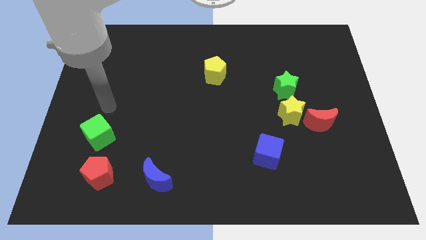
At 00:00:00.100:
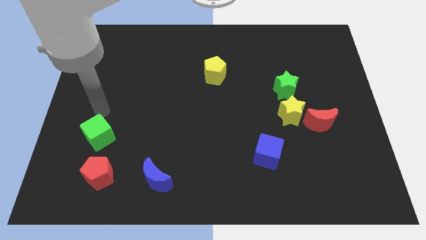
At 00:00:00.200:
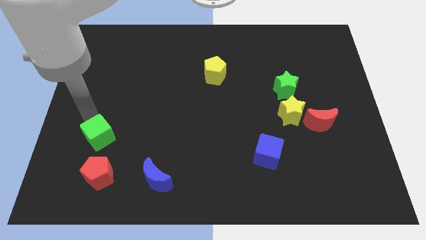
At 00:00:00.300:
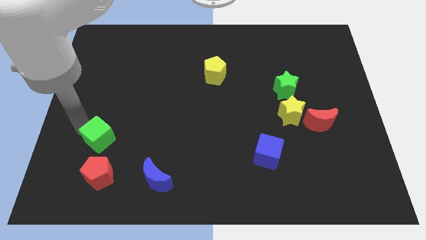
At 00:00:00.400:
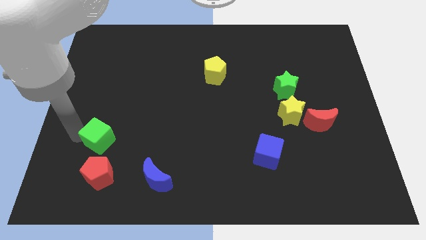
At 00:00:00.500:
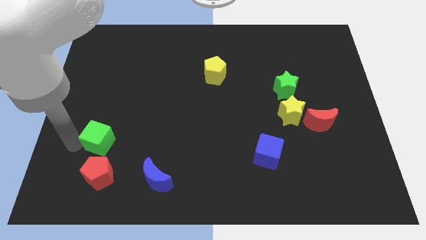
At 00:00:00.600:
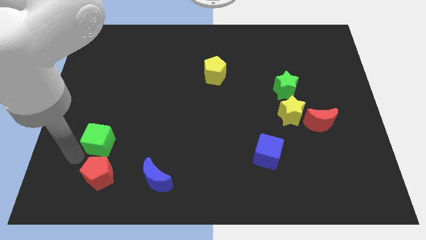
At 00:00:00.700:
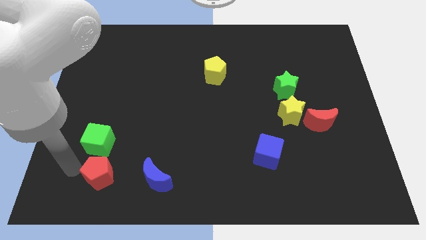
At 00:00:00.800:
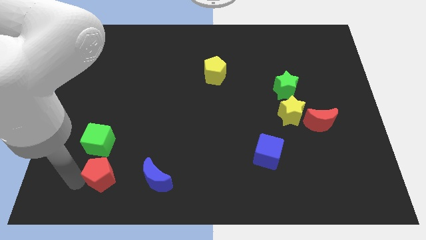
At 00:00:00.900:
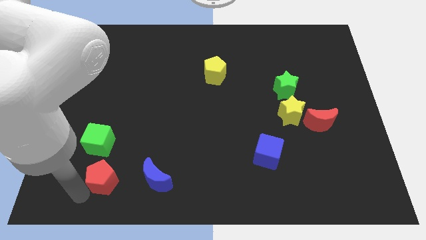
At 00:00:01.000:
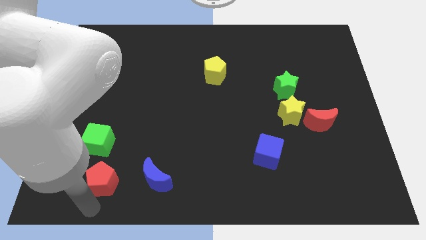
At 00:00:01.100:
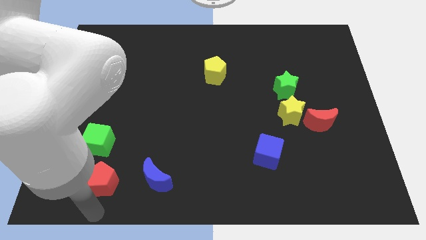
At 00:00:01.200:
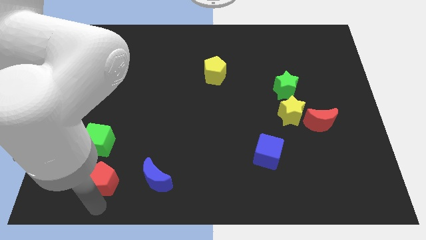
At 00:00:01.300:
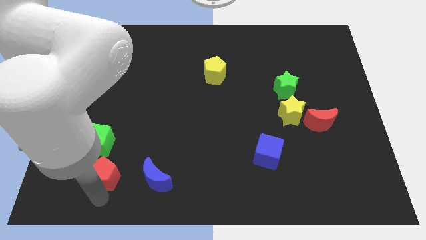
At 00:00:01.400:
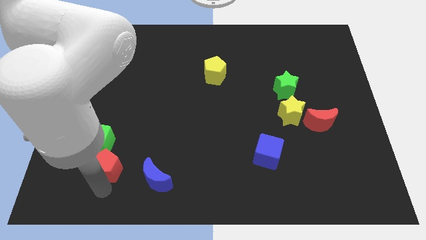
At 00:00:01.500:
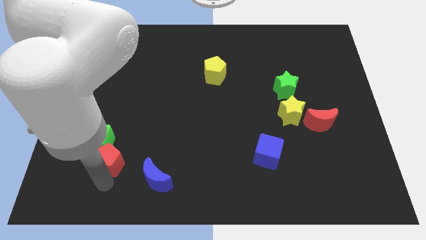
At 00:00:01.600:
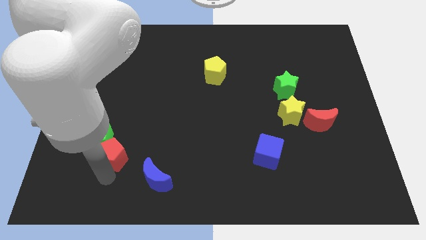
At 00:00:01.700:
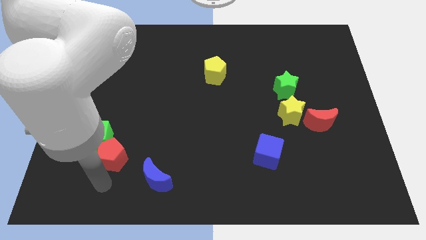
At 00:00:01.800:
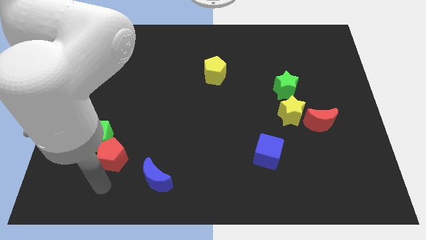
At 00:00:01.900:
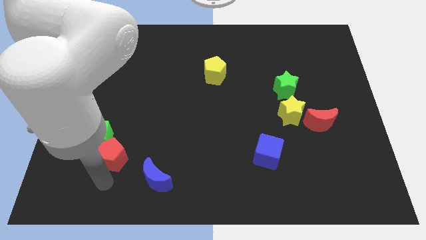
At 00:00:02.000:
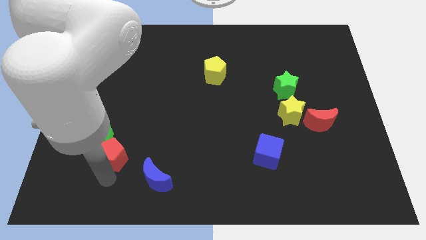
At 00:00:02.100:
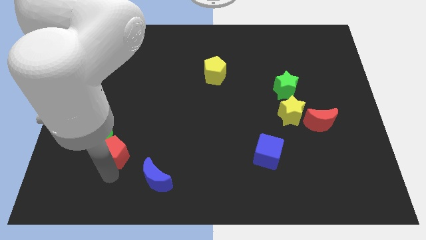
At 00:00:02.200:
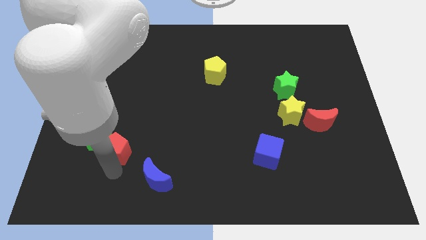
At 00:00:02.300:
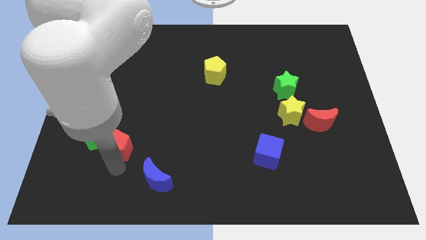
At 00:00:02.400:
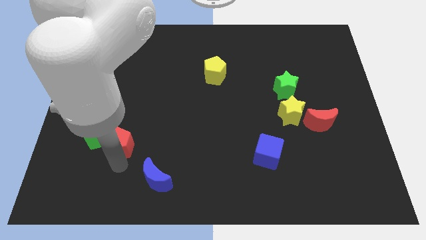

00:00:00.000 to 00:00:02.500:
move the red pentagon a little upwards

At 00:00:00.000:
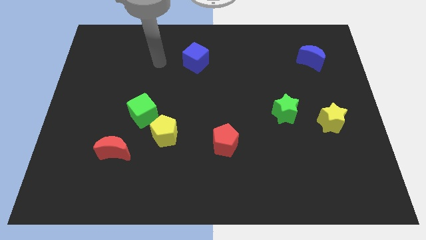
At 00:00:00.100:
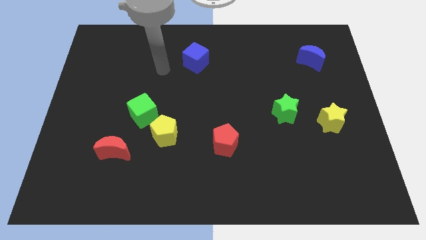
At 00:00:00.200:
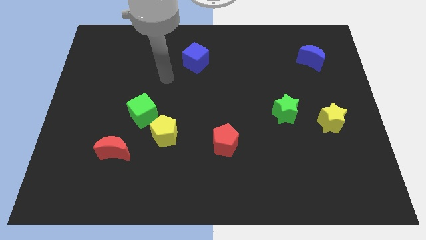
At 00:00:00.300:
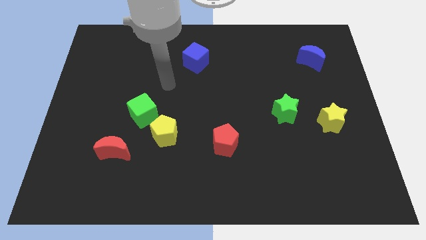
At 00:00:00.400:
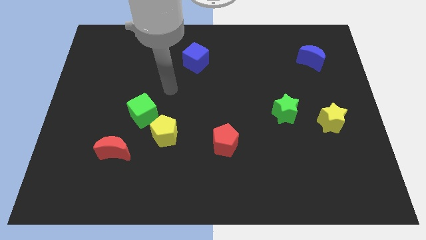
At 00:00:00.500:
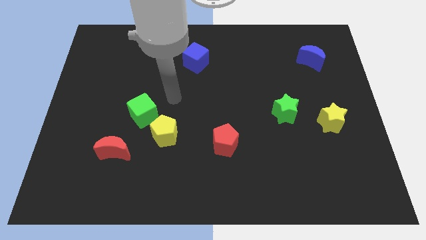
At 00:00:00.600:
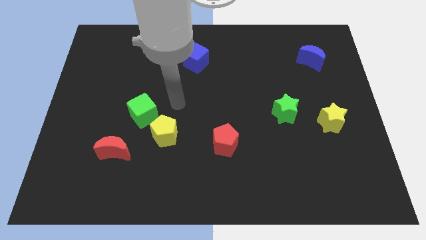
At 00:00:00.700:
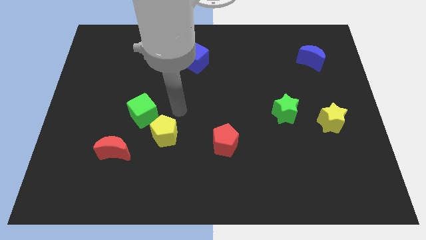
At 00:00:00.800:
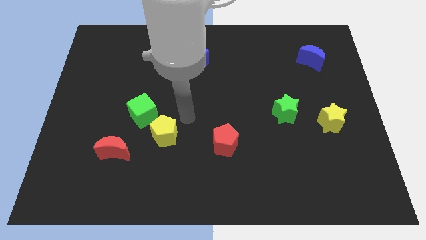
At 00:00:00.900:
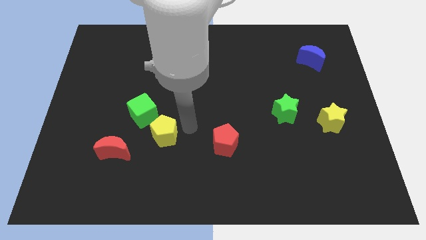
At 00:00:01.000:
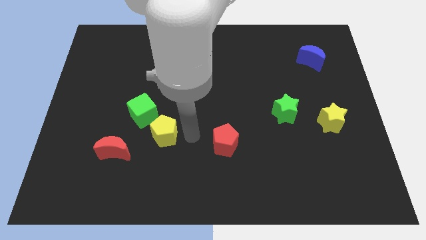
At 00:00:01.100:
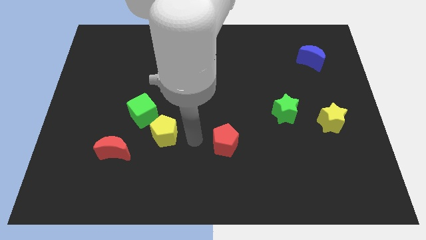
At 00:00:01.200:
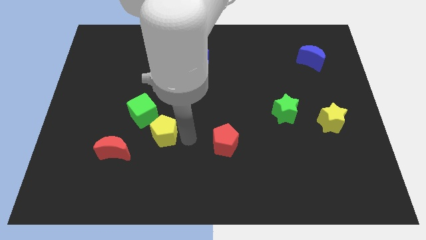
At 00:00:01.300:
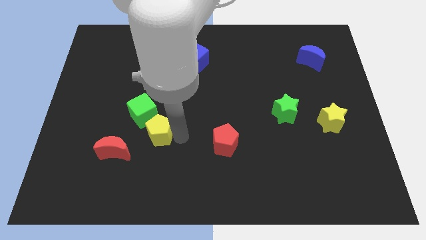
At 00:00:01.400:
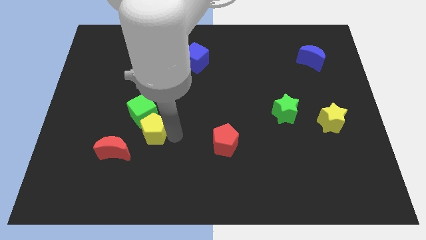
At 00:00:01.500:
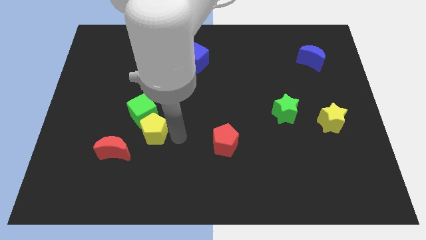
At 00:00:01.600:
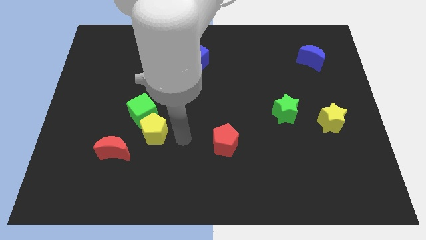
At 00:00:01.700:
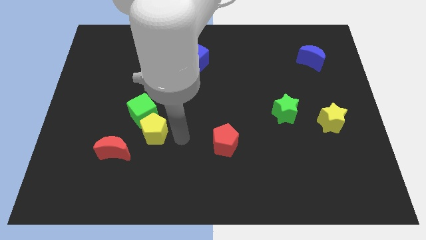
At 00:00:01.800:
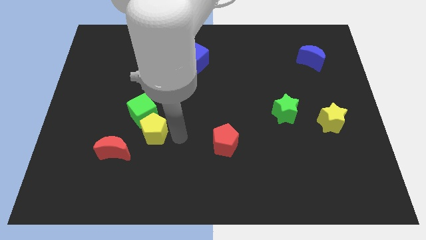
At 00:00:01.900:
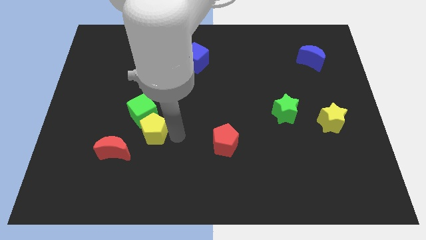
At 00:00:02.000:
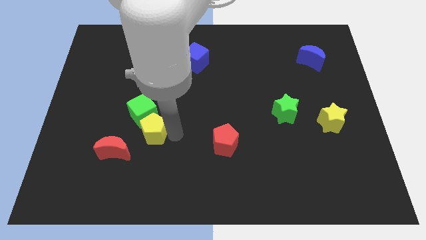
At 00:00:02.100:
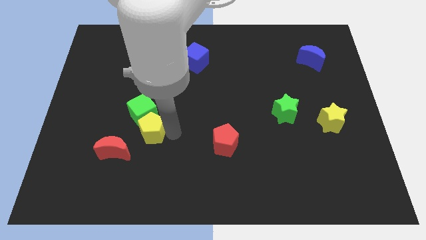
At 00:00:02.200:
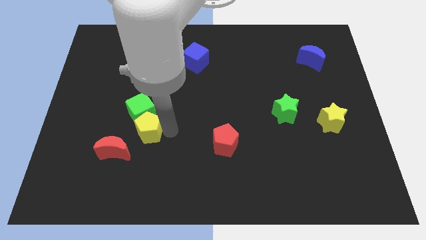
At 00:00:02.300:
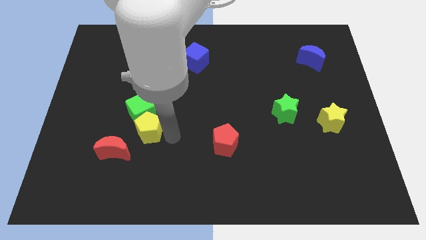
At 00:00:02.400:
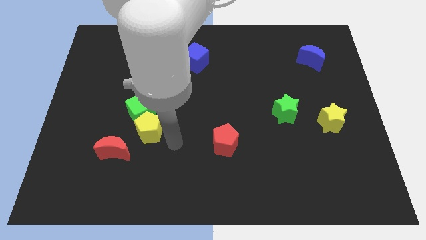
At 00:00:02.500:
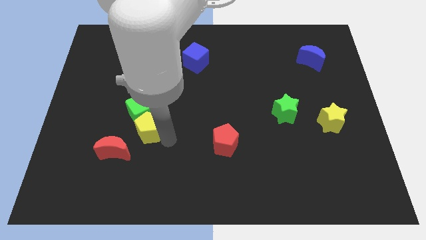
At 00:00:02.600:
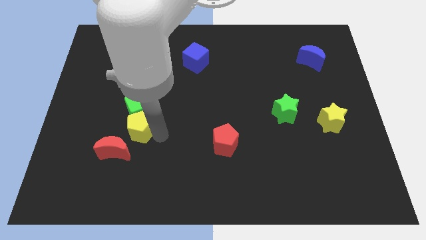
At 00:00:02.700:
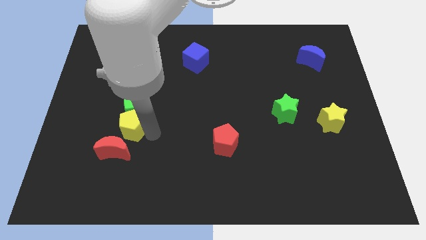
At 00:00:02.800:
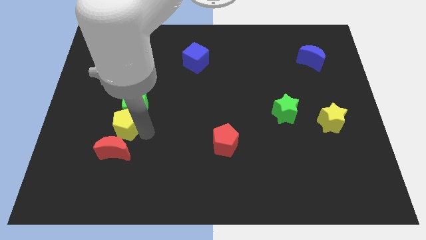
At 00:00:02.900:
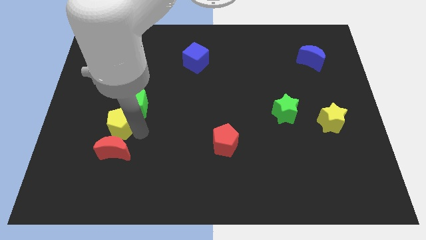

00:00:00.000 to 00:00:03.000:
slightly slide the yellow pentagon upwards and to the left diagonally

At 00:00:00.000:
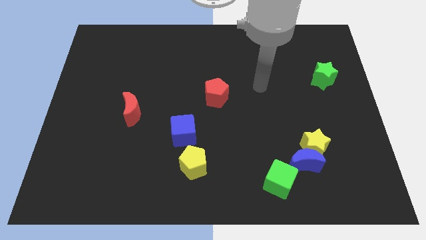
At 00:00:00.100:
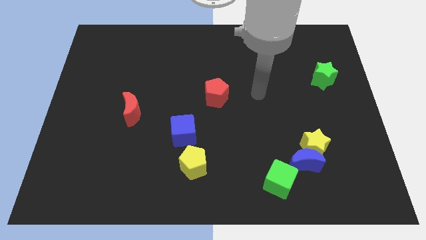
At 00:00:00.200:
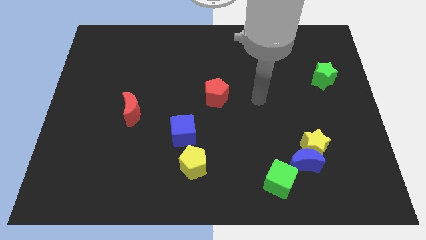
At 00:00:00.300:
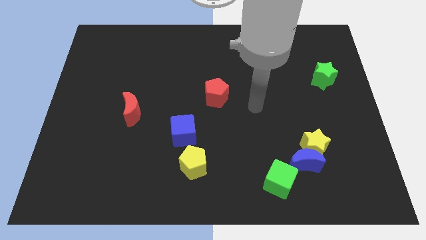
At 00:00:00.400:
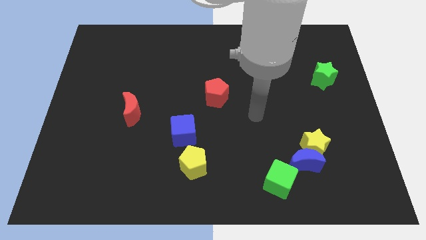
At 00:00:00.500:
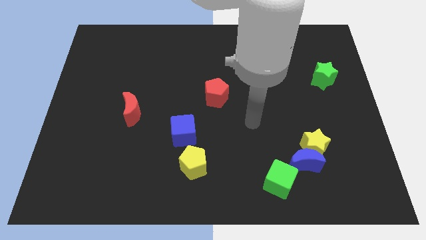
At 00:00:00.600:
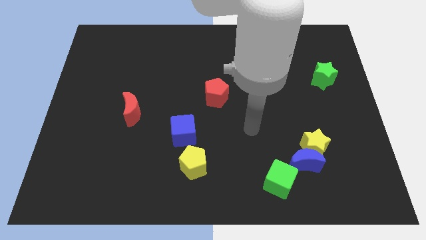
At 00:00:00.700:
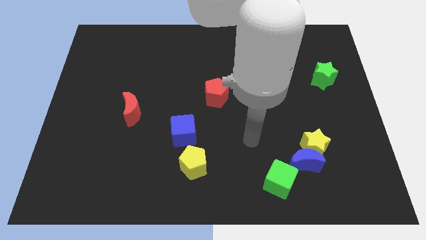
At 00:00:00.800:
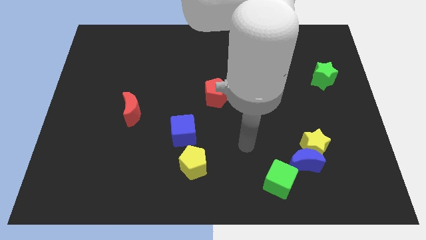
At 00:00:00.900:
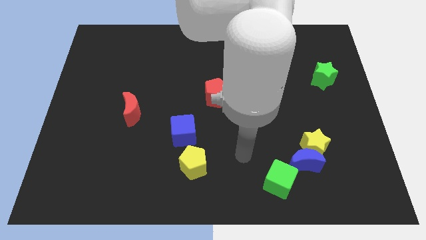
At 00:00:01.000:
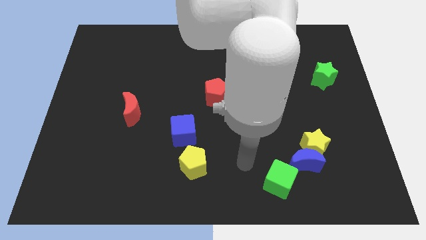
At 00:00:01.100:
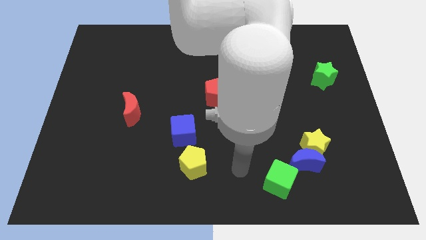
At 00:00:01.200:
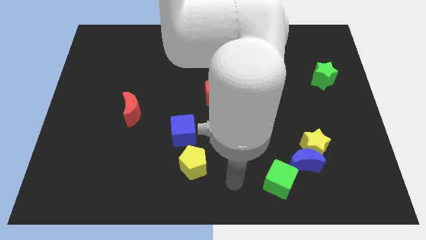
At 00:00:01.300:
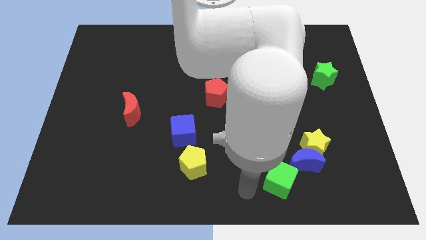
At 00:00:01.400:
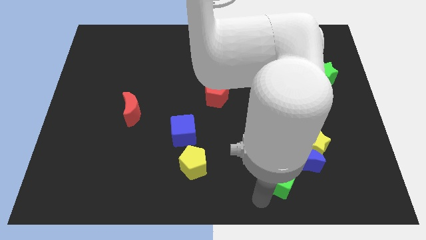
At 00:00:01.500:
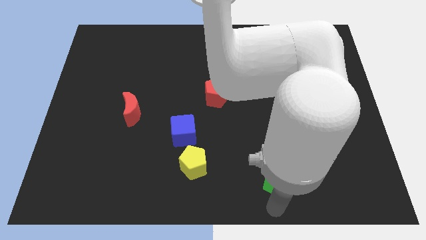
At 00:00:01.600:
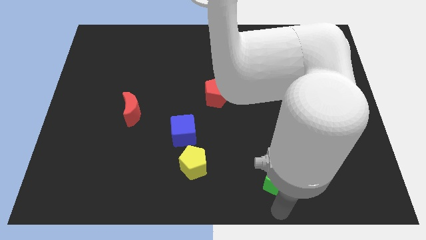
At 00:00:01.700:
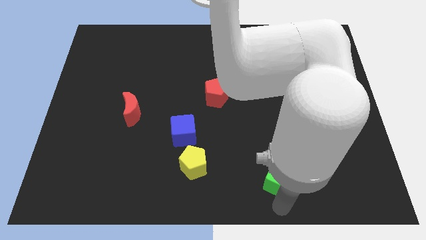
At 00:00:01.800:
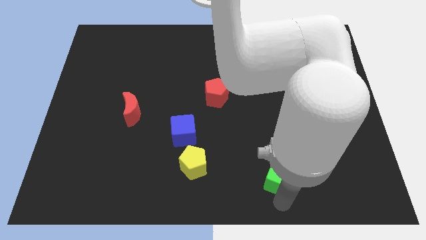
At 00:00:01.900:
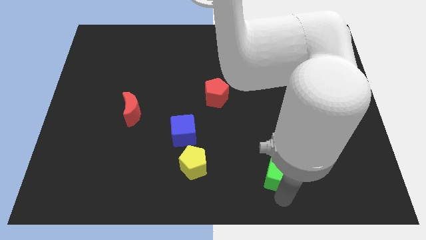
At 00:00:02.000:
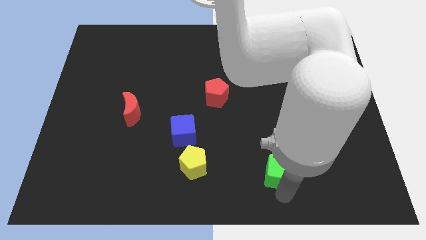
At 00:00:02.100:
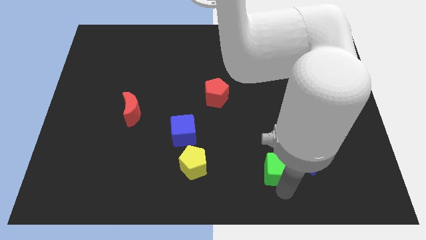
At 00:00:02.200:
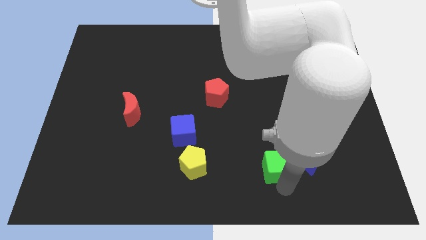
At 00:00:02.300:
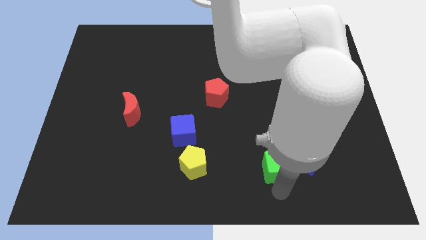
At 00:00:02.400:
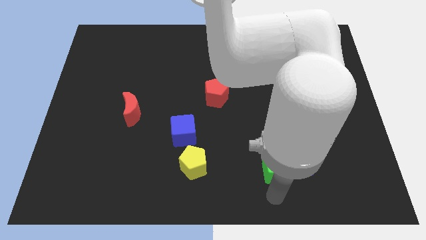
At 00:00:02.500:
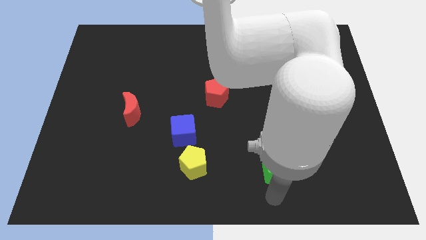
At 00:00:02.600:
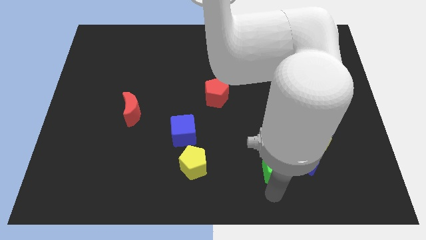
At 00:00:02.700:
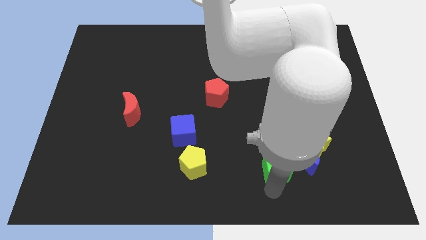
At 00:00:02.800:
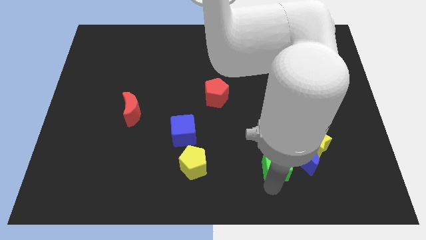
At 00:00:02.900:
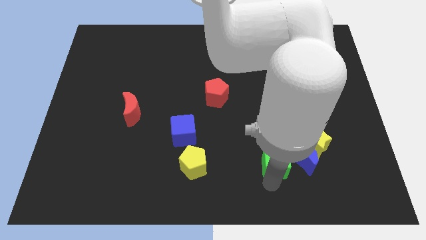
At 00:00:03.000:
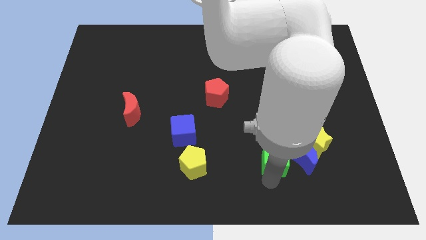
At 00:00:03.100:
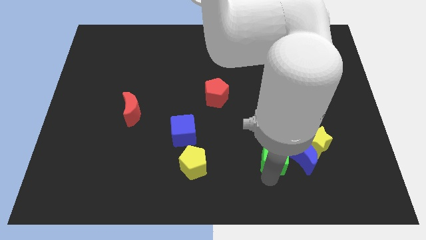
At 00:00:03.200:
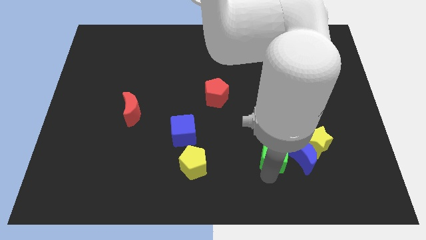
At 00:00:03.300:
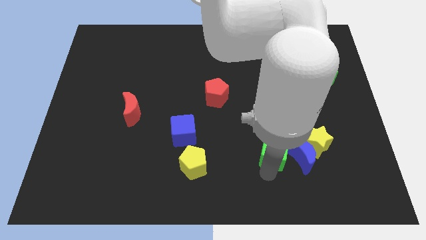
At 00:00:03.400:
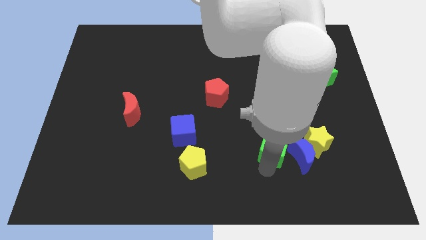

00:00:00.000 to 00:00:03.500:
move the green cube a bit up
